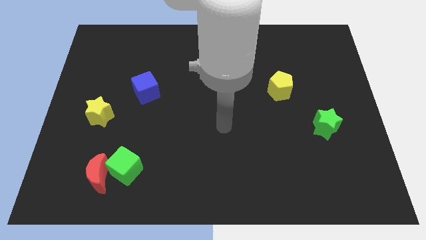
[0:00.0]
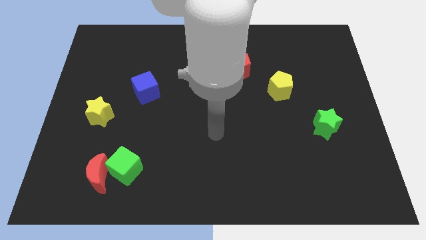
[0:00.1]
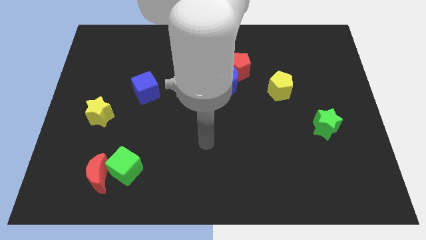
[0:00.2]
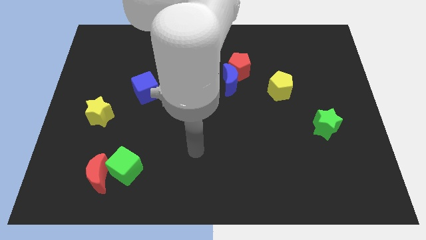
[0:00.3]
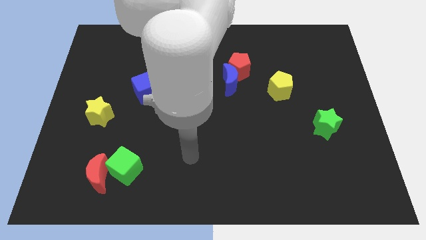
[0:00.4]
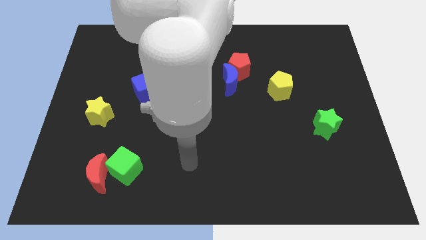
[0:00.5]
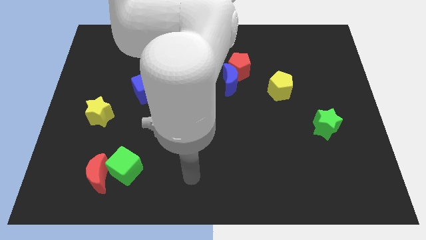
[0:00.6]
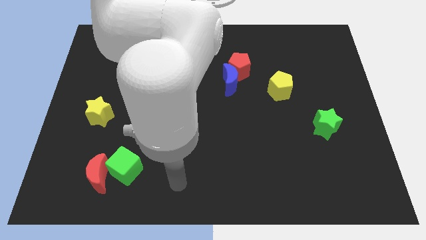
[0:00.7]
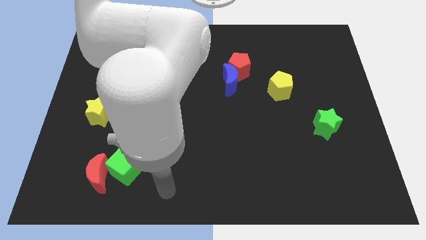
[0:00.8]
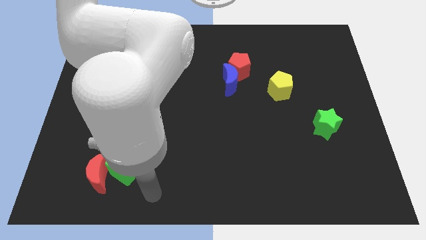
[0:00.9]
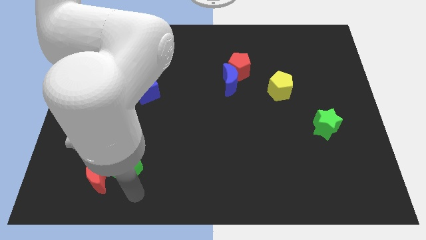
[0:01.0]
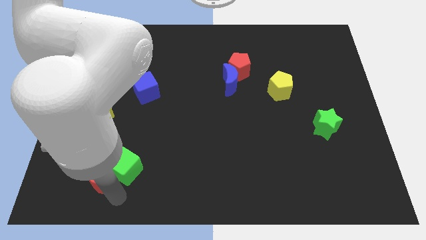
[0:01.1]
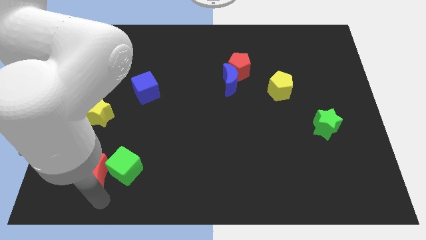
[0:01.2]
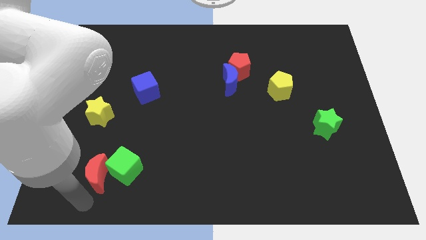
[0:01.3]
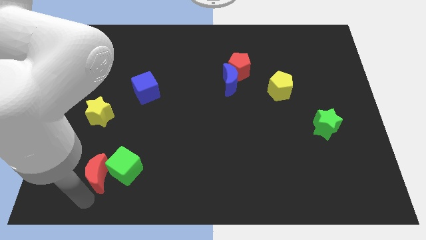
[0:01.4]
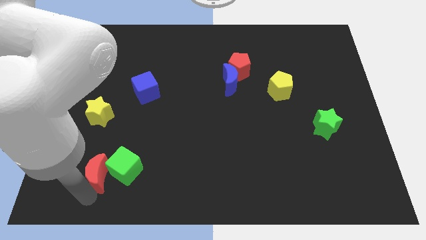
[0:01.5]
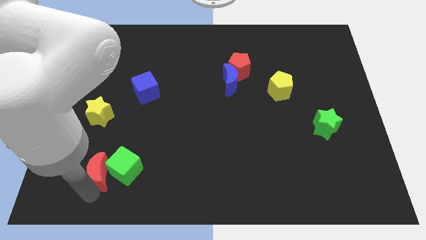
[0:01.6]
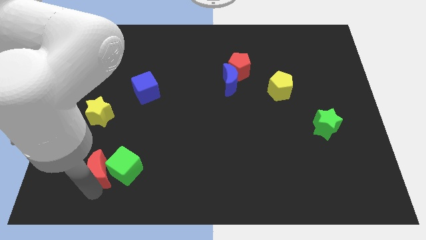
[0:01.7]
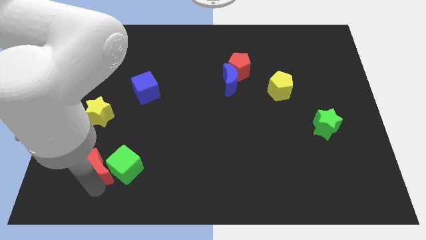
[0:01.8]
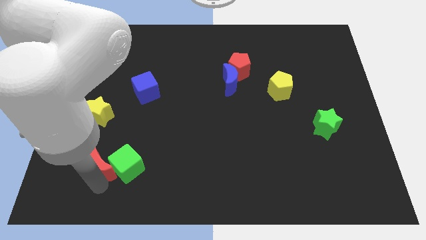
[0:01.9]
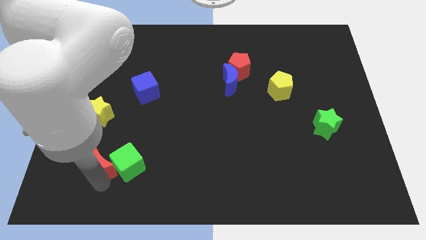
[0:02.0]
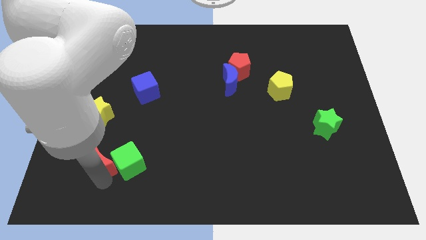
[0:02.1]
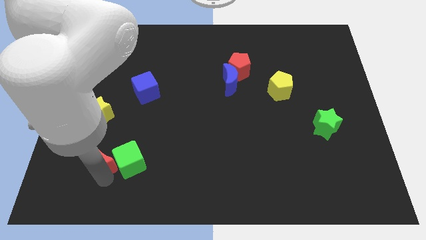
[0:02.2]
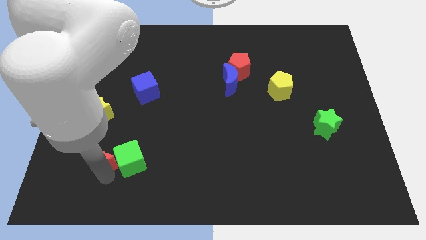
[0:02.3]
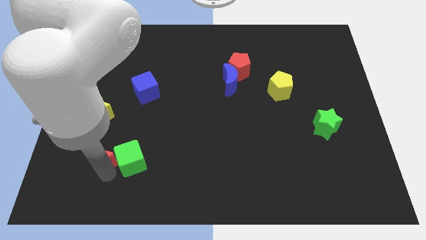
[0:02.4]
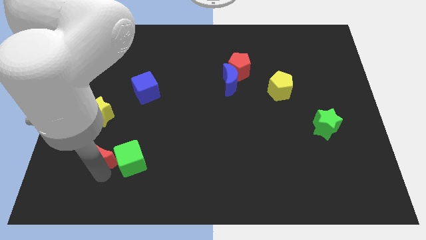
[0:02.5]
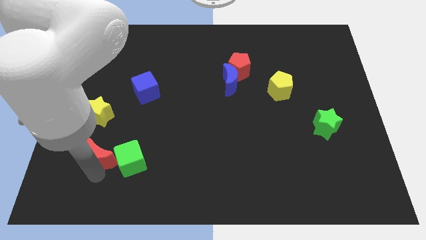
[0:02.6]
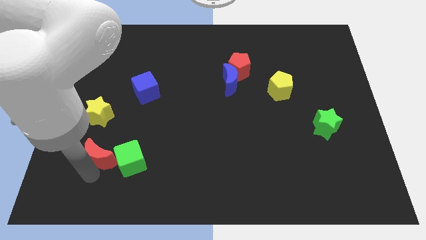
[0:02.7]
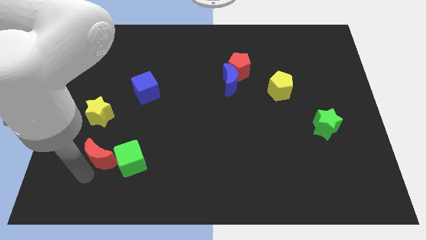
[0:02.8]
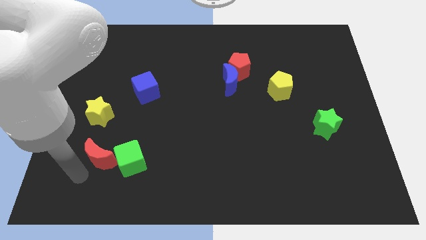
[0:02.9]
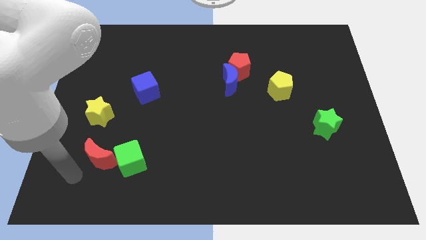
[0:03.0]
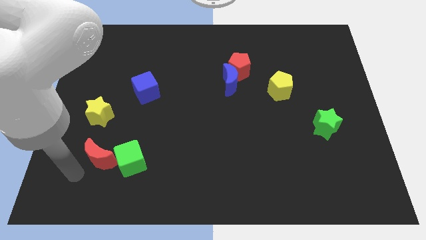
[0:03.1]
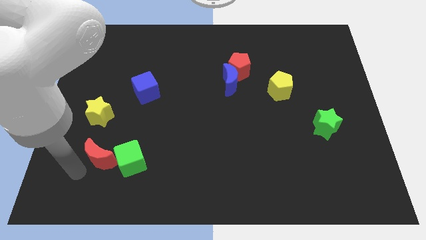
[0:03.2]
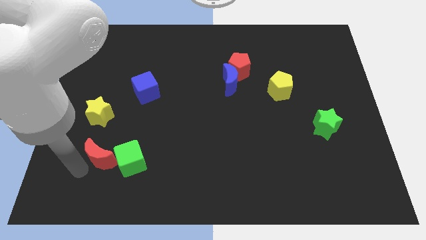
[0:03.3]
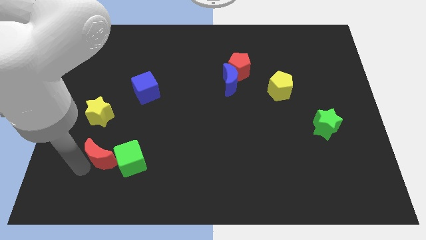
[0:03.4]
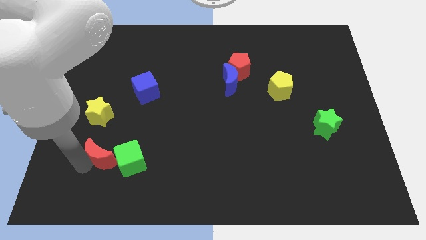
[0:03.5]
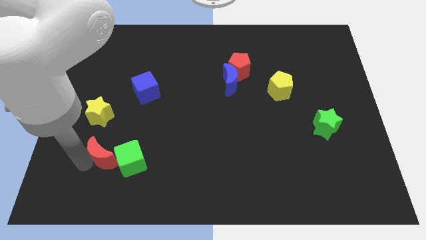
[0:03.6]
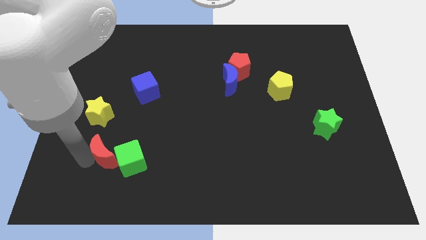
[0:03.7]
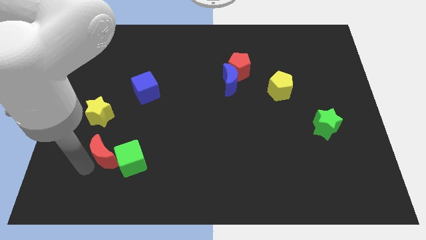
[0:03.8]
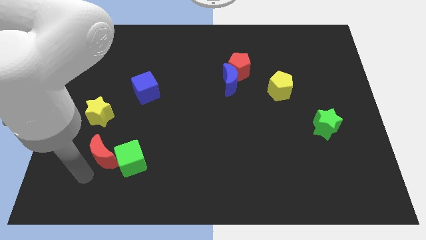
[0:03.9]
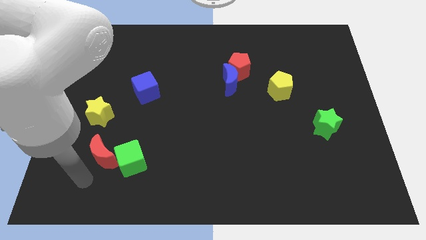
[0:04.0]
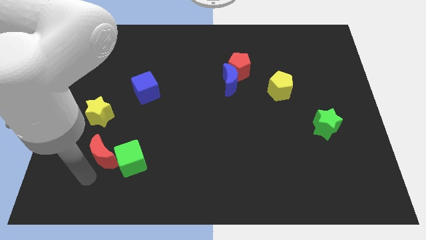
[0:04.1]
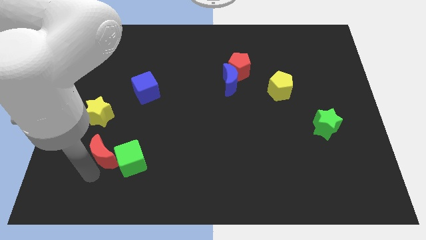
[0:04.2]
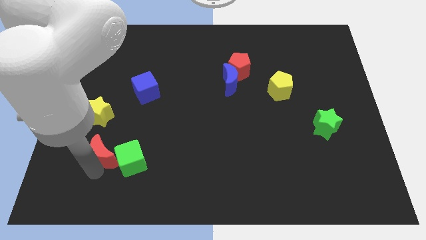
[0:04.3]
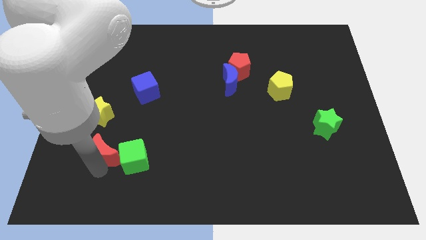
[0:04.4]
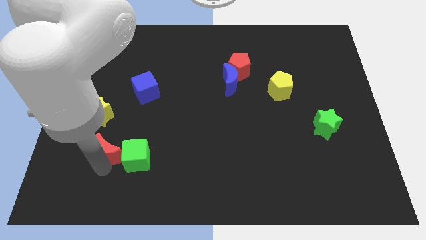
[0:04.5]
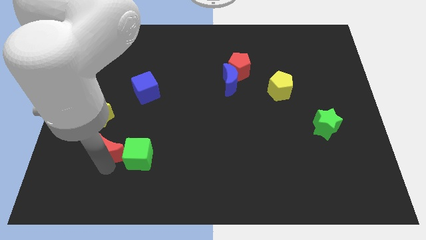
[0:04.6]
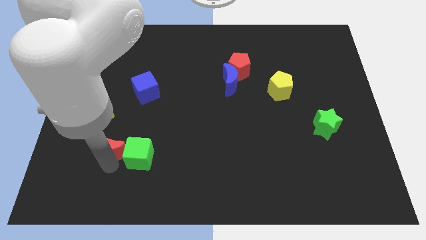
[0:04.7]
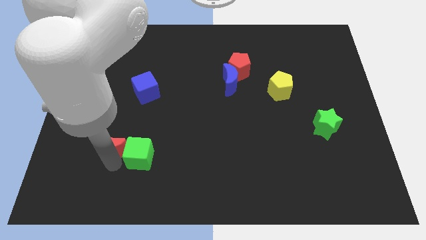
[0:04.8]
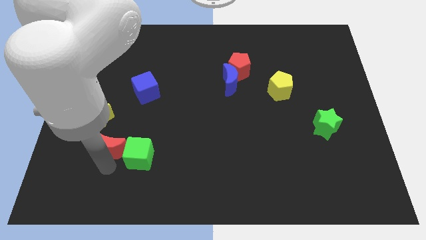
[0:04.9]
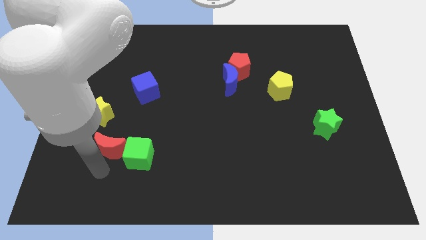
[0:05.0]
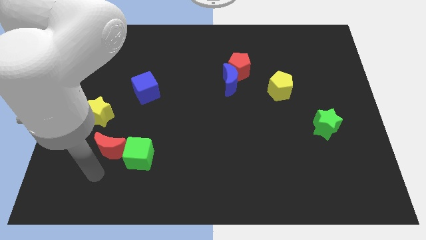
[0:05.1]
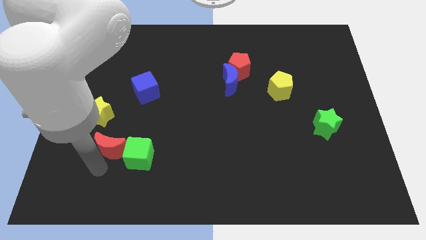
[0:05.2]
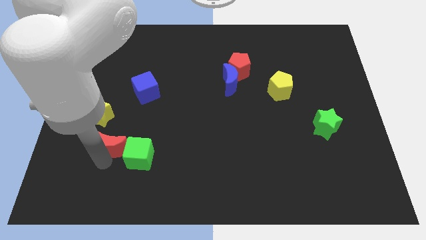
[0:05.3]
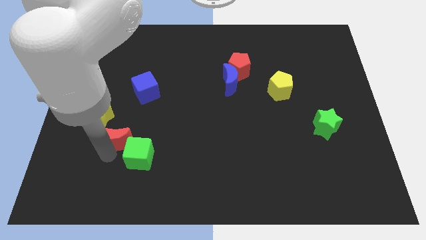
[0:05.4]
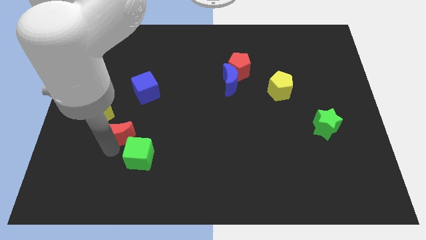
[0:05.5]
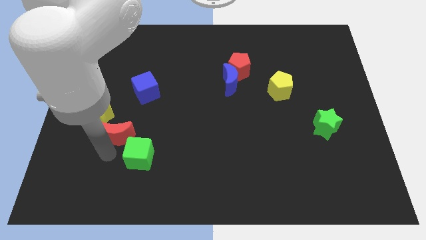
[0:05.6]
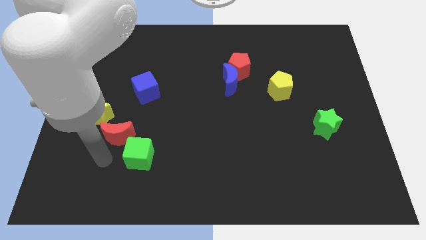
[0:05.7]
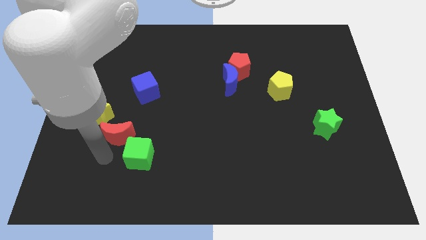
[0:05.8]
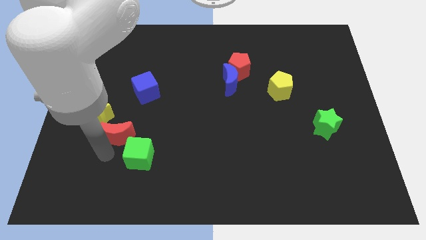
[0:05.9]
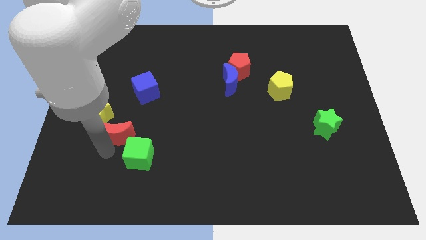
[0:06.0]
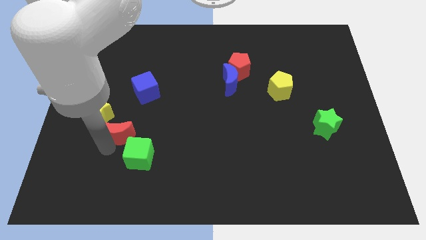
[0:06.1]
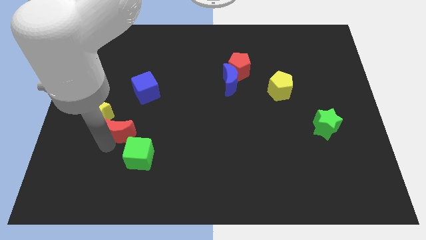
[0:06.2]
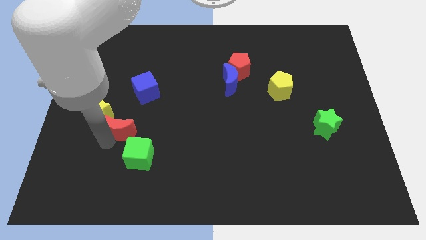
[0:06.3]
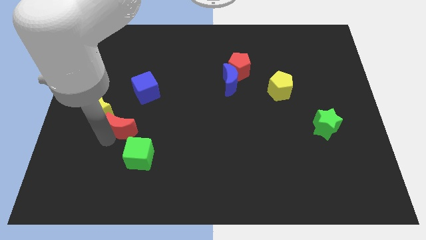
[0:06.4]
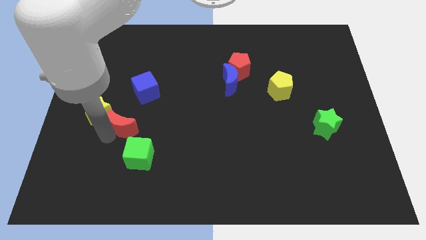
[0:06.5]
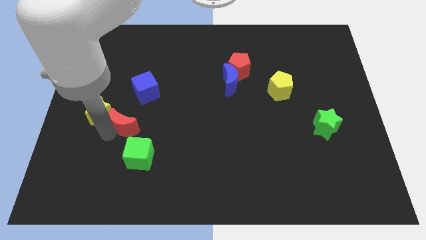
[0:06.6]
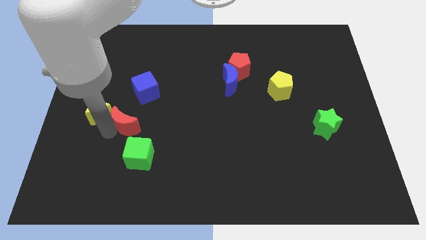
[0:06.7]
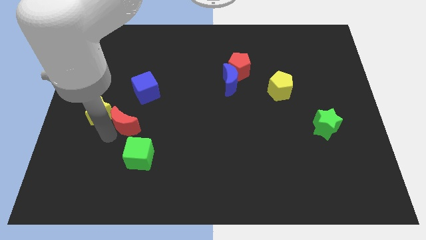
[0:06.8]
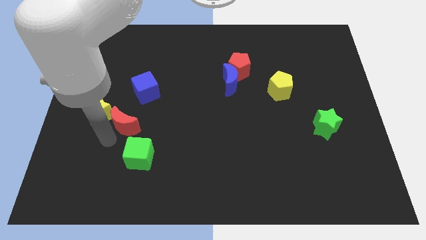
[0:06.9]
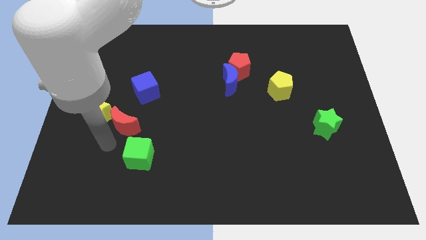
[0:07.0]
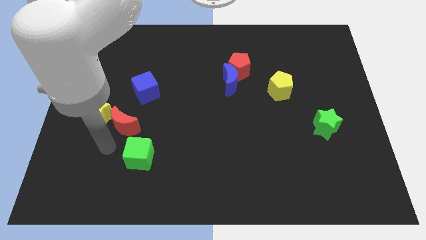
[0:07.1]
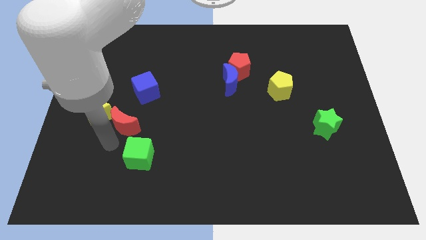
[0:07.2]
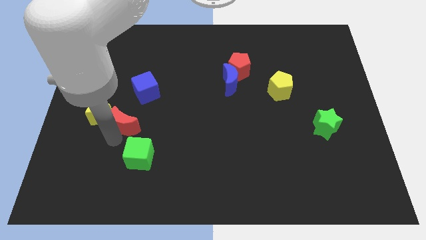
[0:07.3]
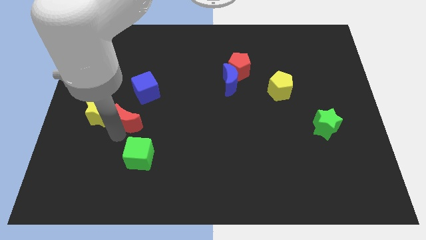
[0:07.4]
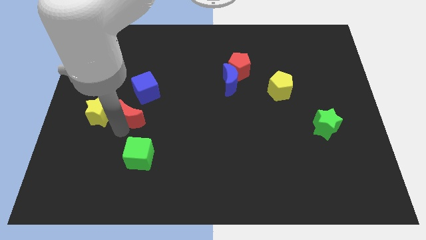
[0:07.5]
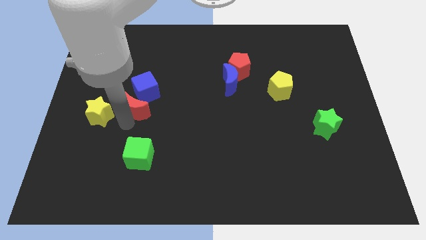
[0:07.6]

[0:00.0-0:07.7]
slide the red moon to the blue cube
